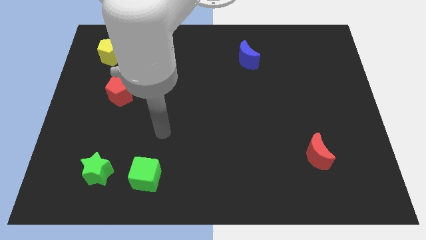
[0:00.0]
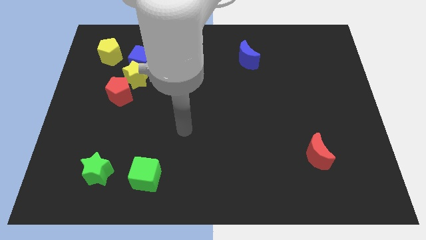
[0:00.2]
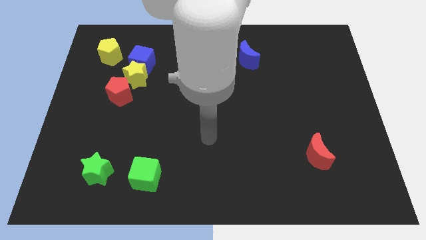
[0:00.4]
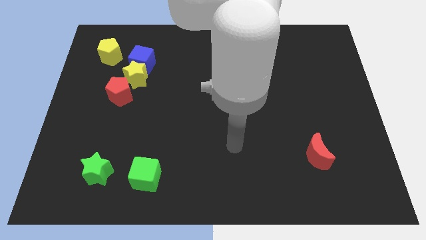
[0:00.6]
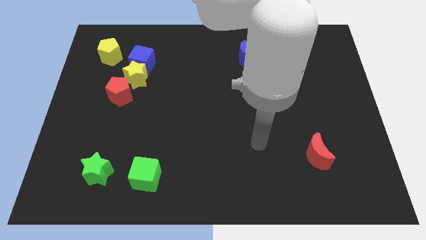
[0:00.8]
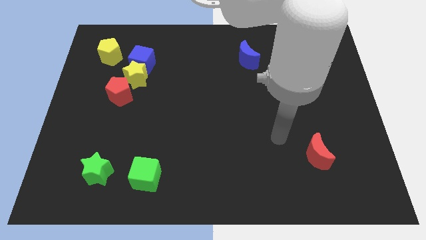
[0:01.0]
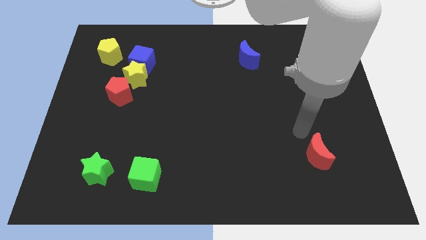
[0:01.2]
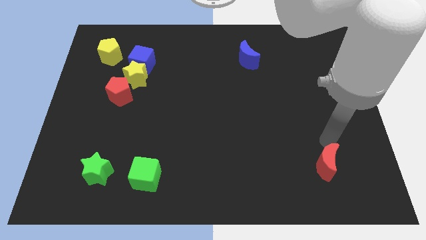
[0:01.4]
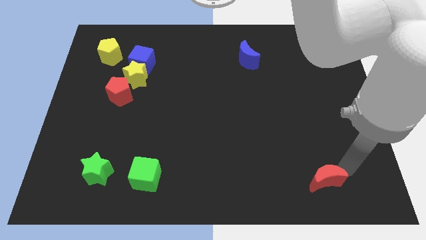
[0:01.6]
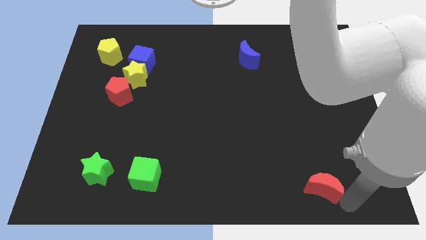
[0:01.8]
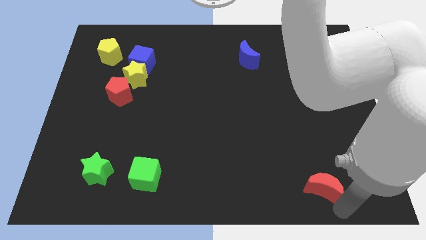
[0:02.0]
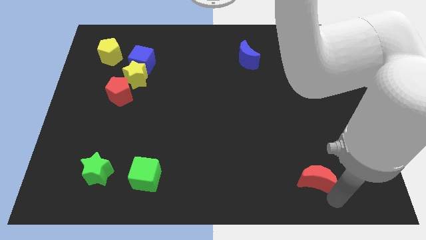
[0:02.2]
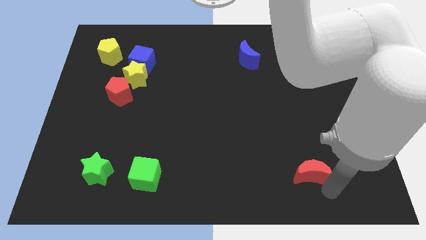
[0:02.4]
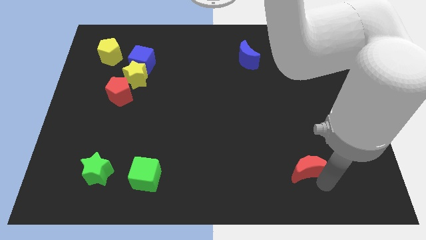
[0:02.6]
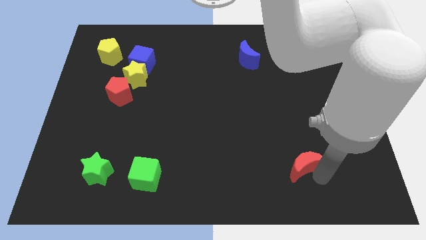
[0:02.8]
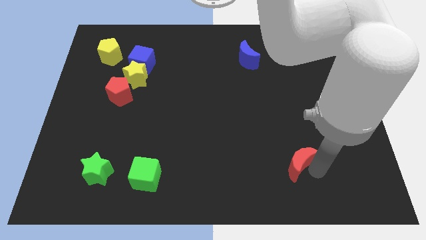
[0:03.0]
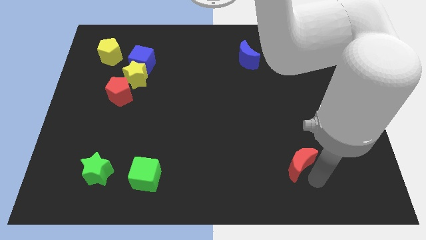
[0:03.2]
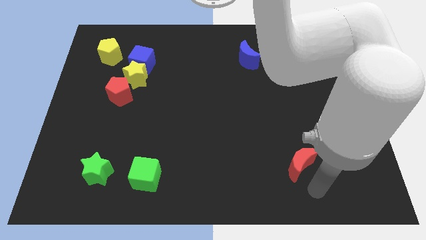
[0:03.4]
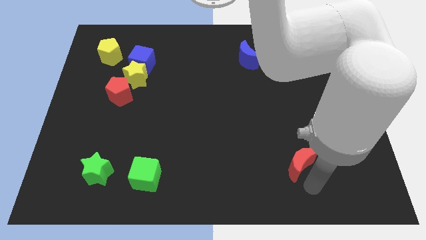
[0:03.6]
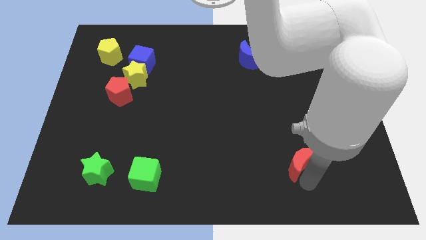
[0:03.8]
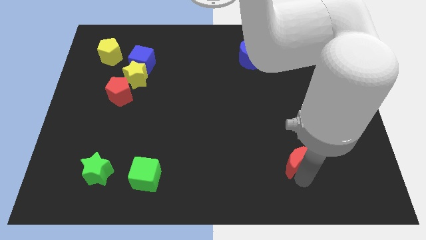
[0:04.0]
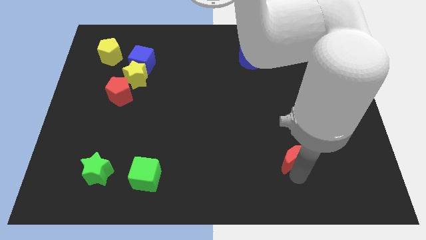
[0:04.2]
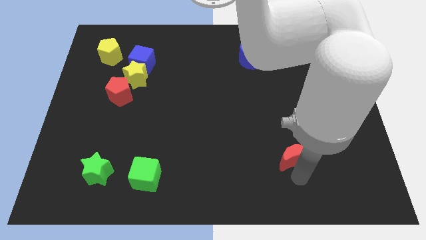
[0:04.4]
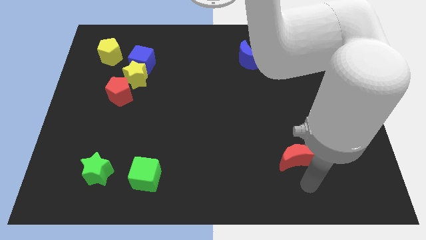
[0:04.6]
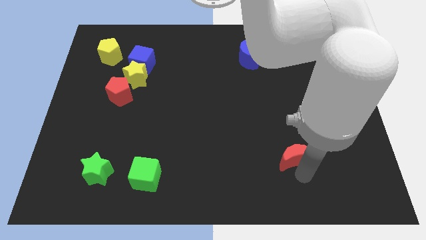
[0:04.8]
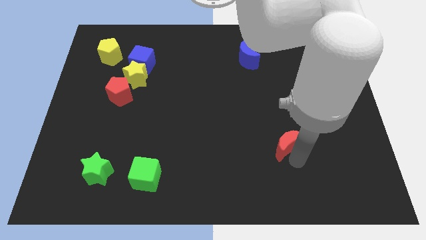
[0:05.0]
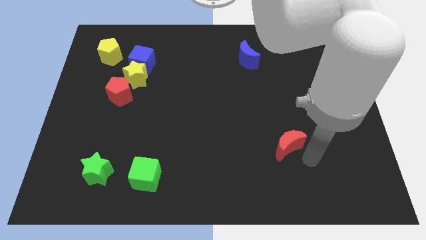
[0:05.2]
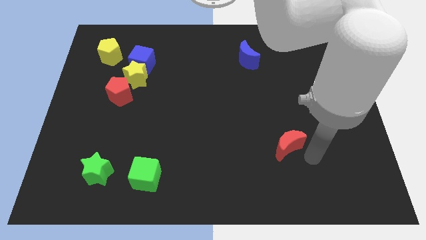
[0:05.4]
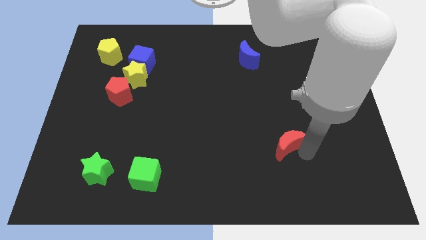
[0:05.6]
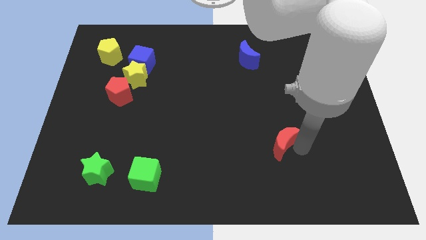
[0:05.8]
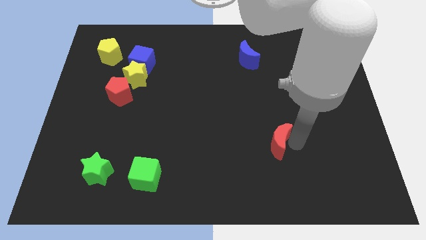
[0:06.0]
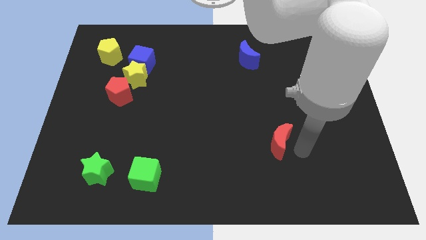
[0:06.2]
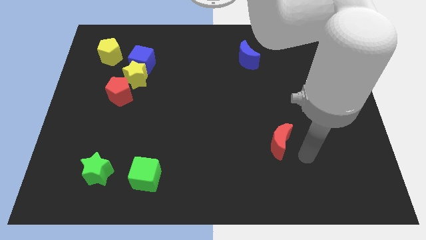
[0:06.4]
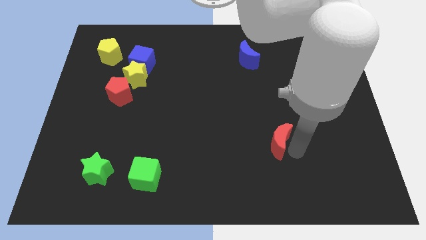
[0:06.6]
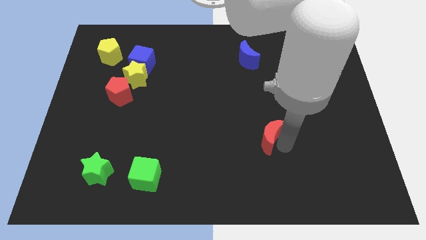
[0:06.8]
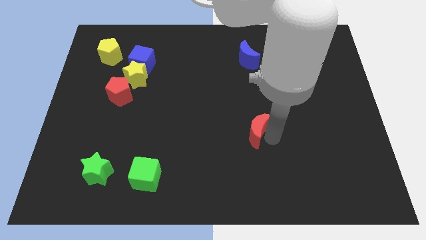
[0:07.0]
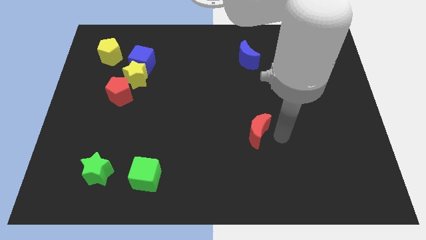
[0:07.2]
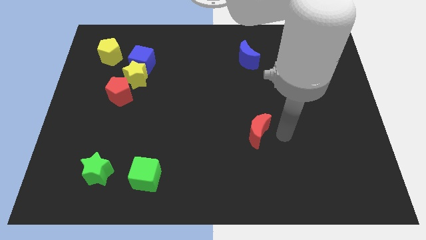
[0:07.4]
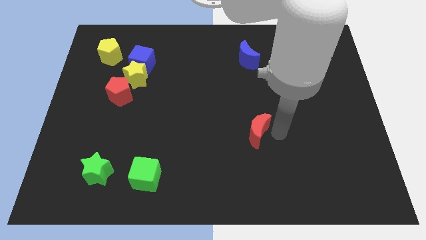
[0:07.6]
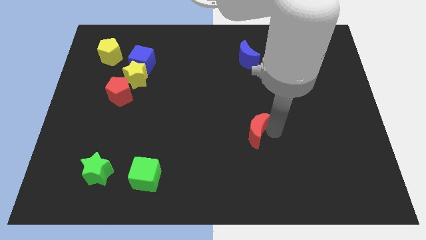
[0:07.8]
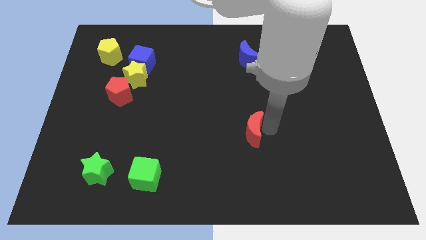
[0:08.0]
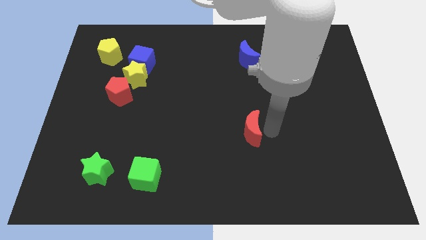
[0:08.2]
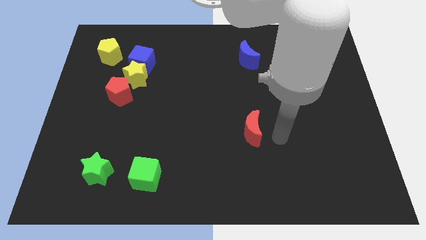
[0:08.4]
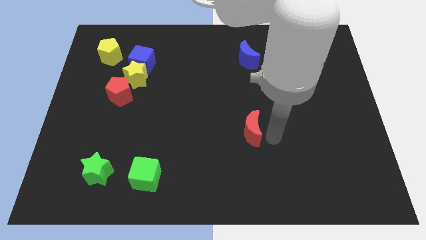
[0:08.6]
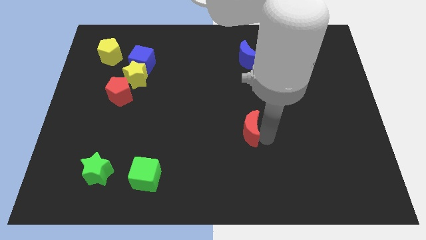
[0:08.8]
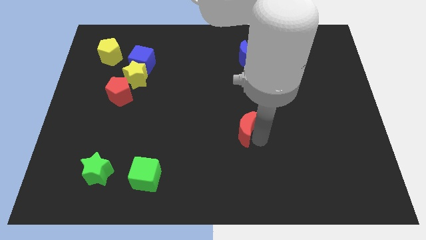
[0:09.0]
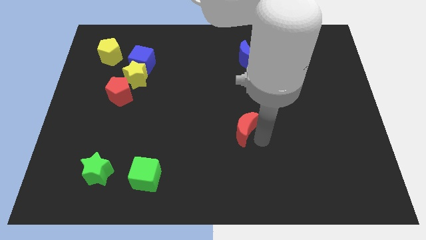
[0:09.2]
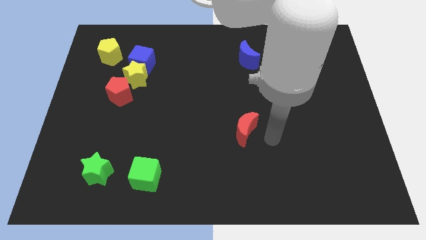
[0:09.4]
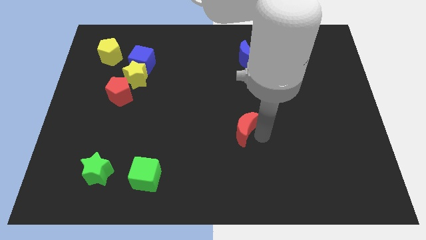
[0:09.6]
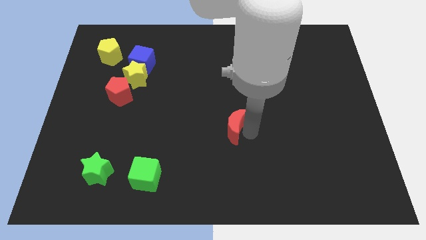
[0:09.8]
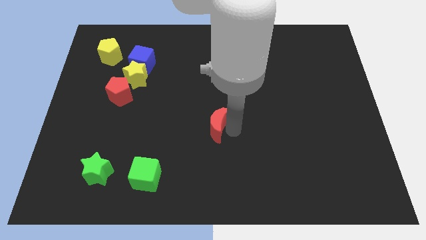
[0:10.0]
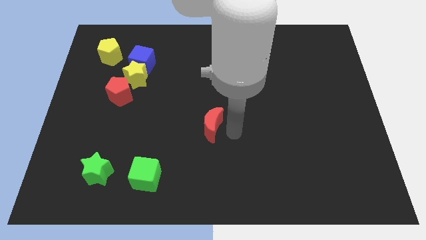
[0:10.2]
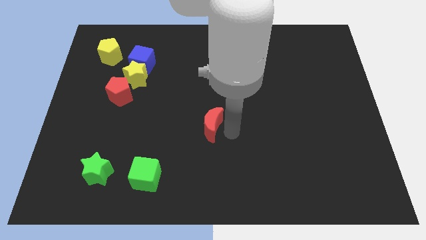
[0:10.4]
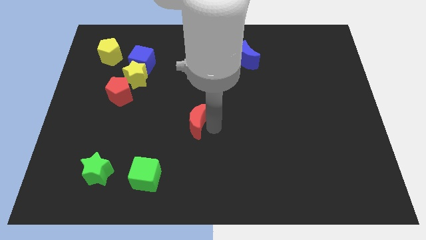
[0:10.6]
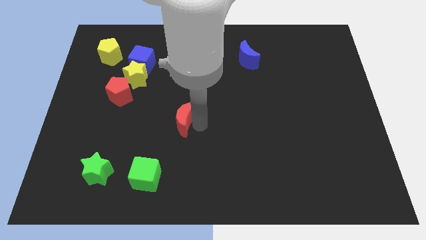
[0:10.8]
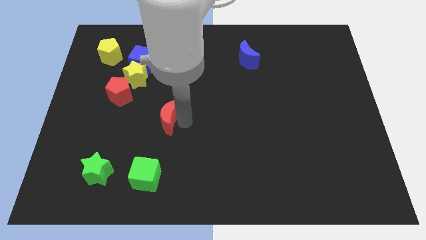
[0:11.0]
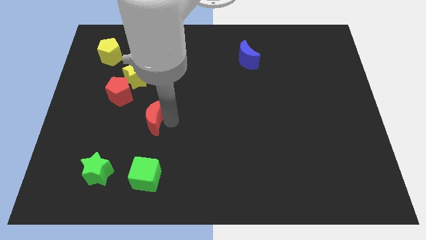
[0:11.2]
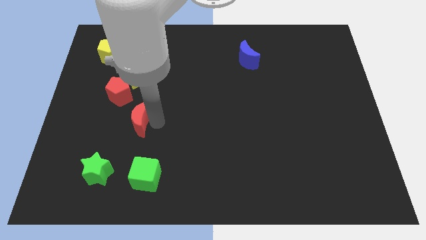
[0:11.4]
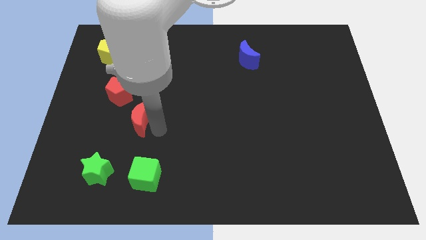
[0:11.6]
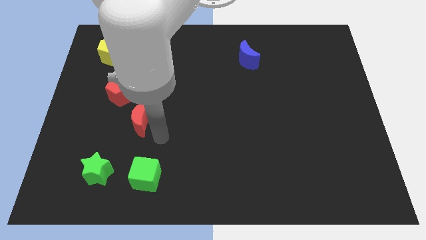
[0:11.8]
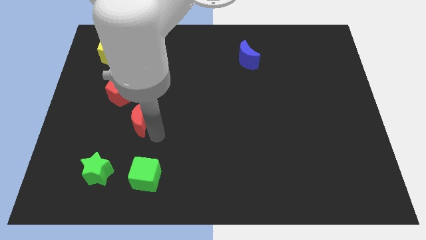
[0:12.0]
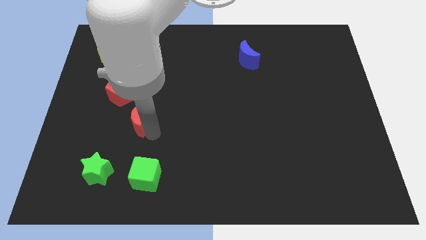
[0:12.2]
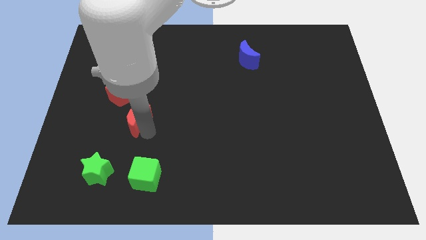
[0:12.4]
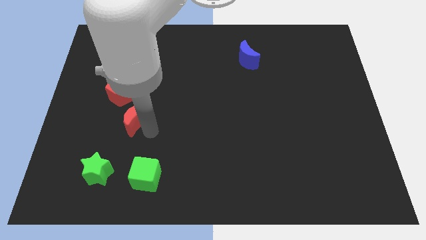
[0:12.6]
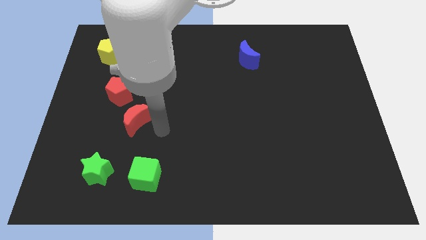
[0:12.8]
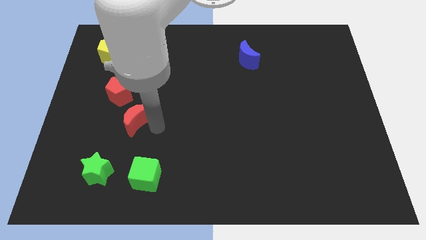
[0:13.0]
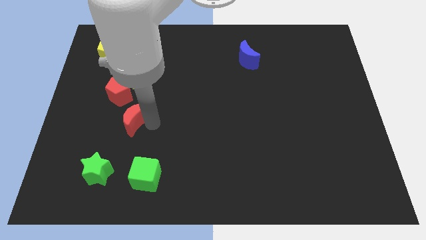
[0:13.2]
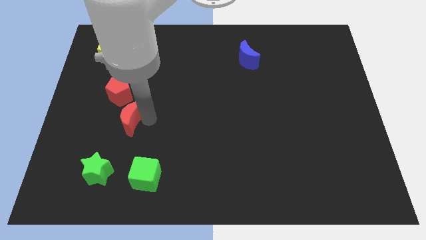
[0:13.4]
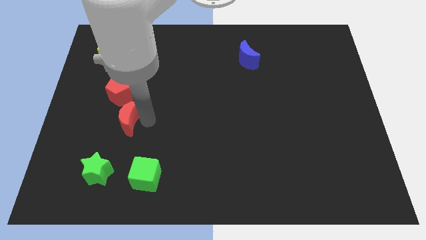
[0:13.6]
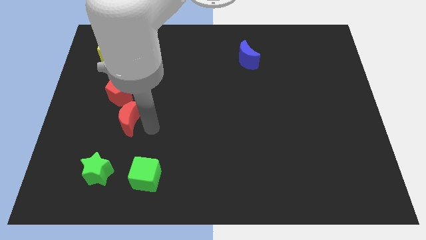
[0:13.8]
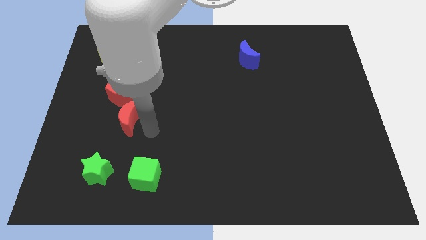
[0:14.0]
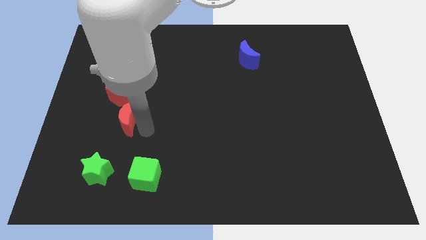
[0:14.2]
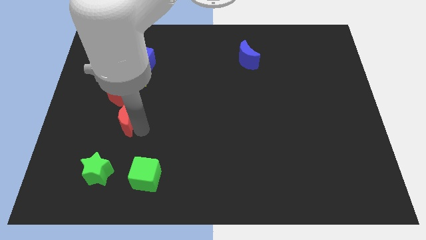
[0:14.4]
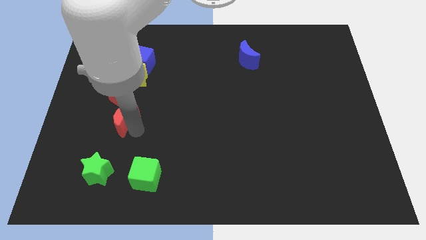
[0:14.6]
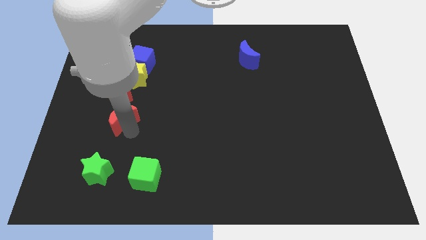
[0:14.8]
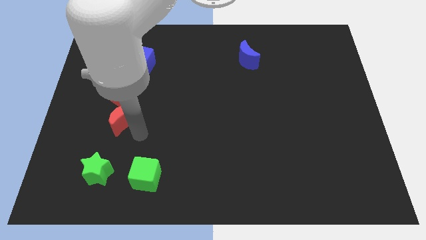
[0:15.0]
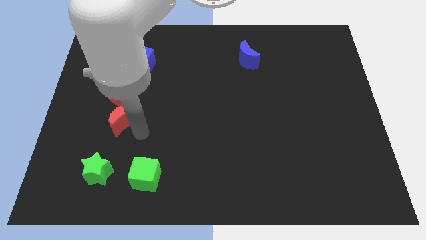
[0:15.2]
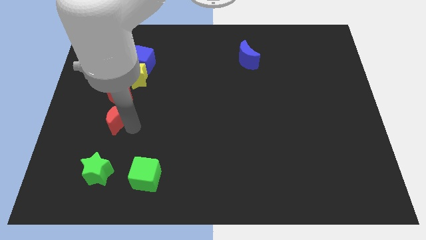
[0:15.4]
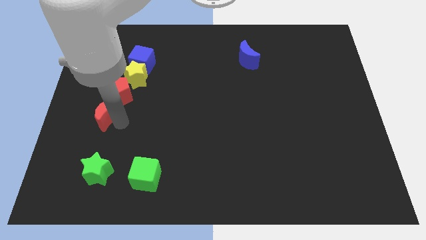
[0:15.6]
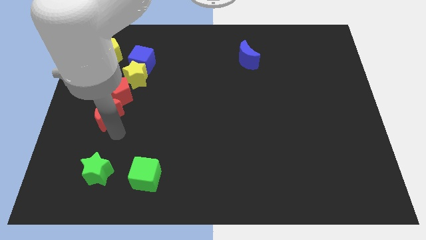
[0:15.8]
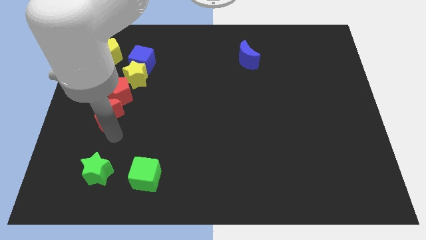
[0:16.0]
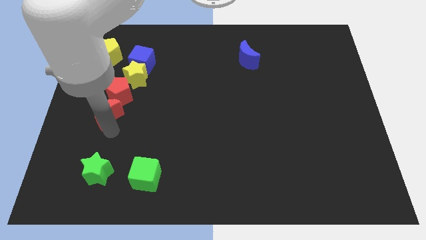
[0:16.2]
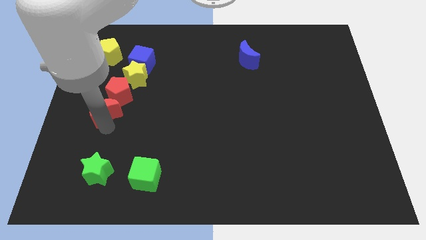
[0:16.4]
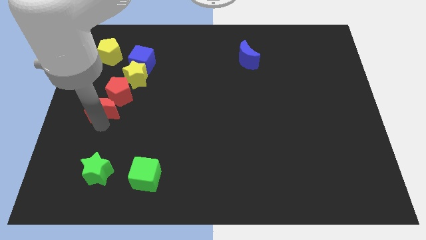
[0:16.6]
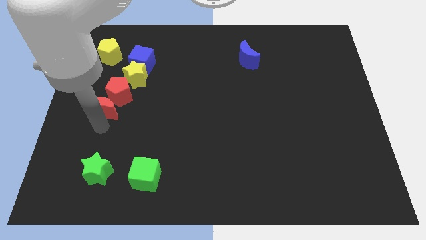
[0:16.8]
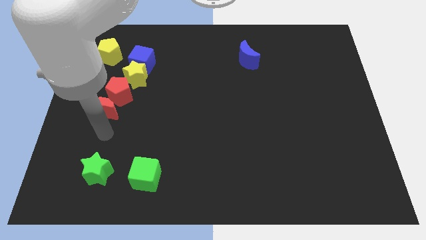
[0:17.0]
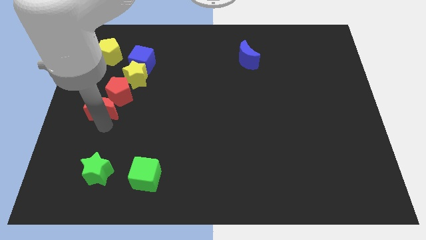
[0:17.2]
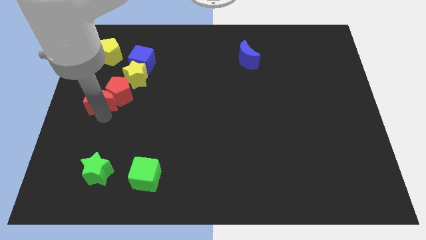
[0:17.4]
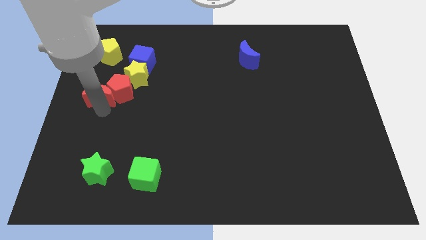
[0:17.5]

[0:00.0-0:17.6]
put the red moon below the yellow pentagon
